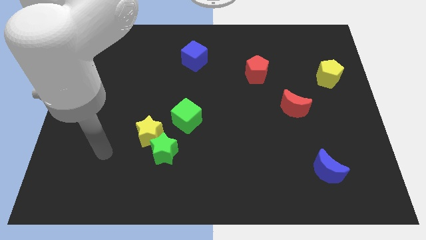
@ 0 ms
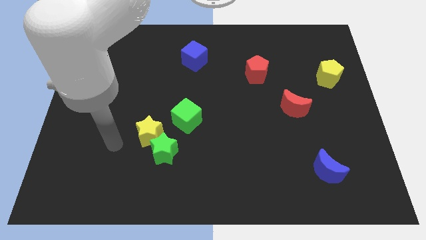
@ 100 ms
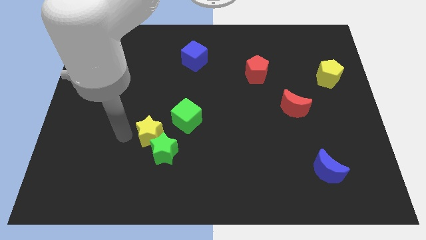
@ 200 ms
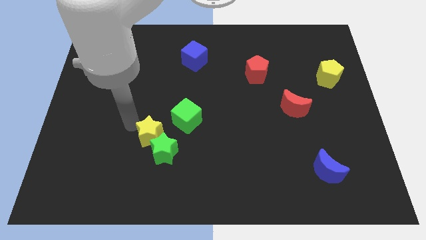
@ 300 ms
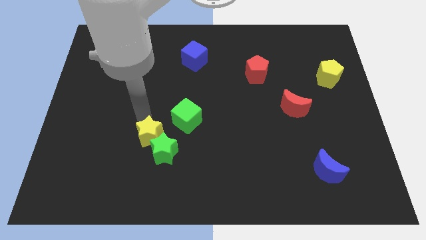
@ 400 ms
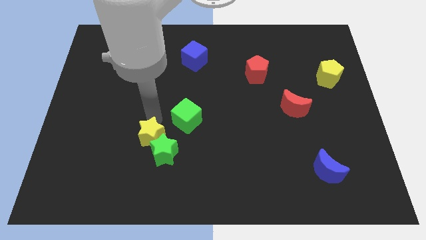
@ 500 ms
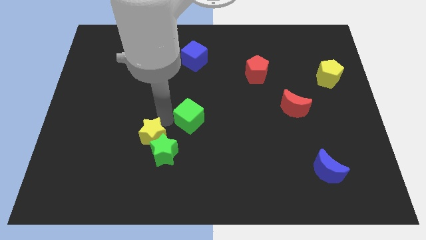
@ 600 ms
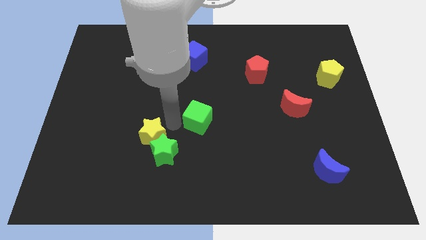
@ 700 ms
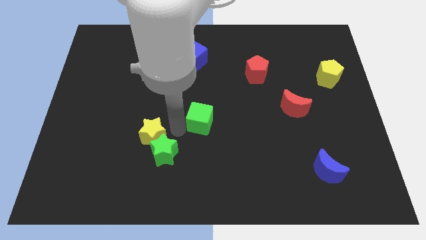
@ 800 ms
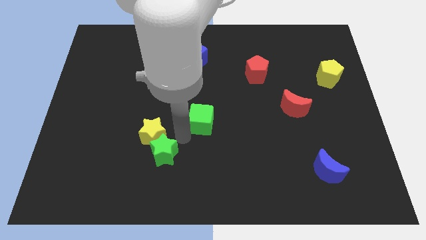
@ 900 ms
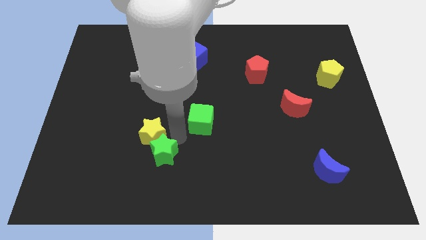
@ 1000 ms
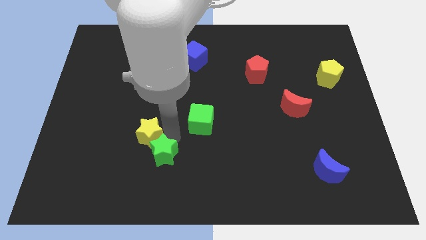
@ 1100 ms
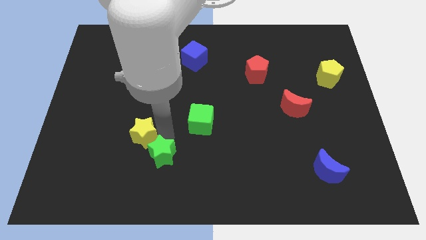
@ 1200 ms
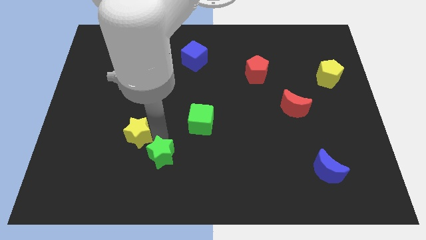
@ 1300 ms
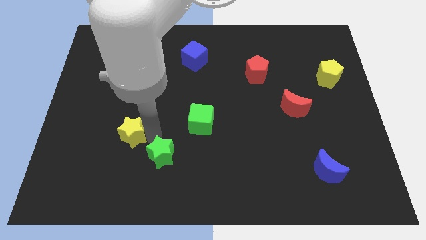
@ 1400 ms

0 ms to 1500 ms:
separate the yellow star from the green star and green cube

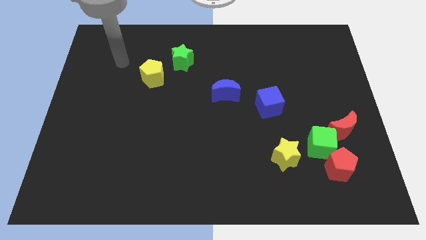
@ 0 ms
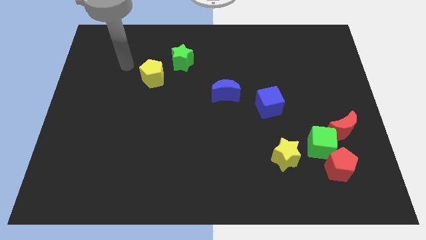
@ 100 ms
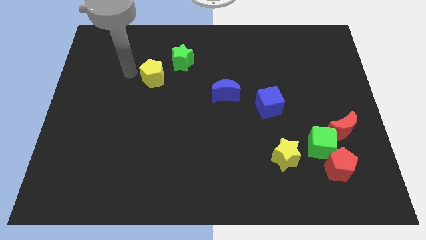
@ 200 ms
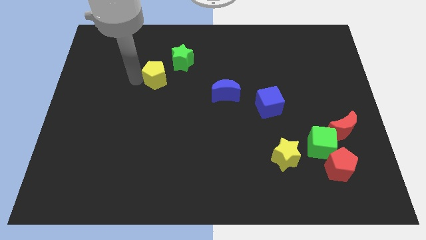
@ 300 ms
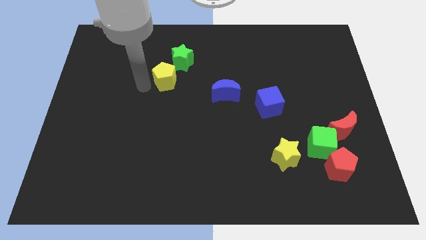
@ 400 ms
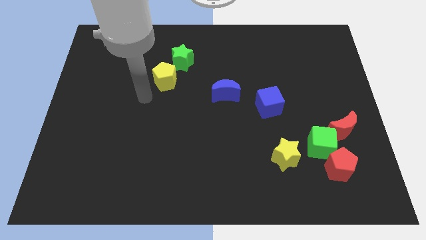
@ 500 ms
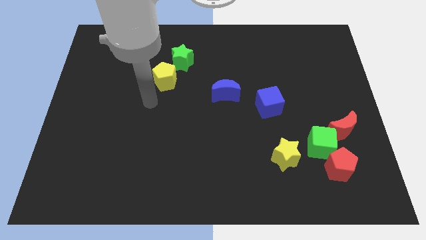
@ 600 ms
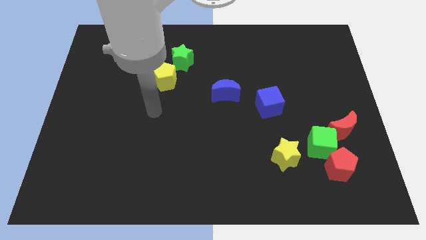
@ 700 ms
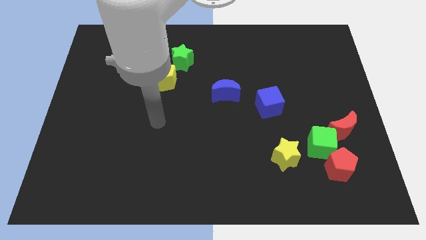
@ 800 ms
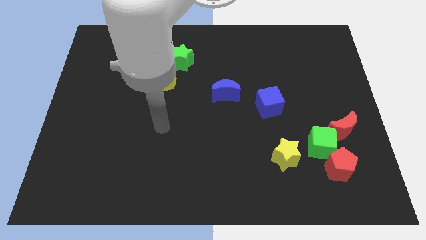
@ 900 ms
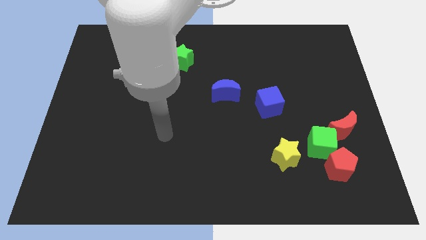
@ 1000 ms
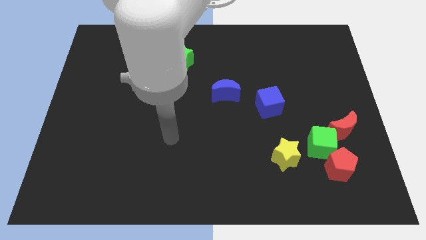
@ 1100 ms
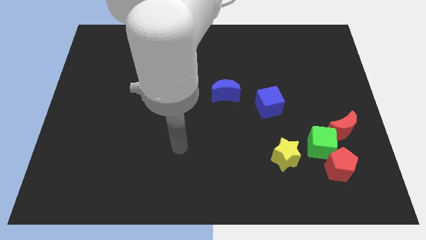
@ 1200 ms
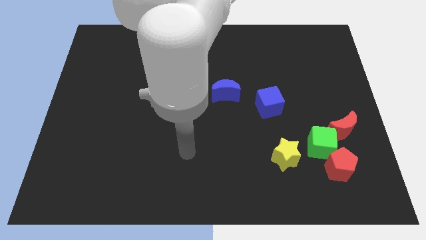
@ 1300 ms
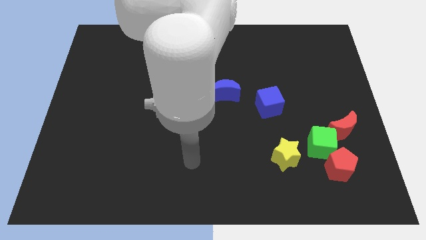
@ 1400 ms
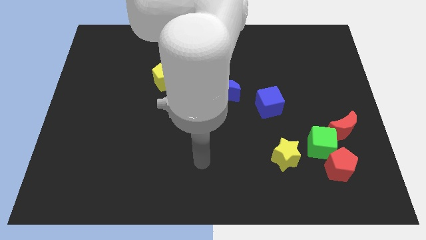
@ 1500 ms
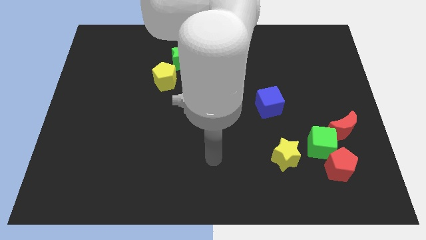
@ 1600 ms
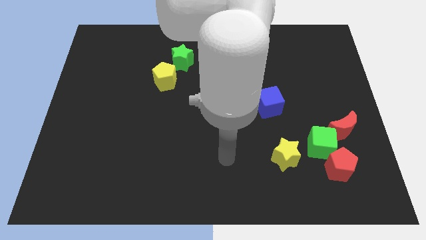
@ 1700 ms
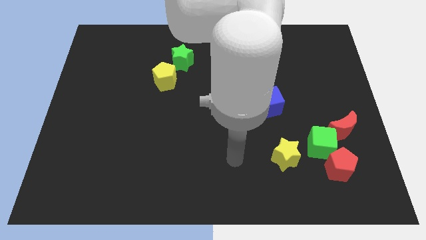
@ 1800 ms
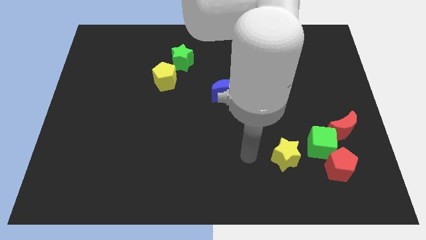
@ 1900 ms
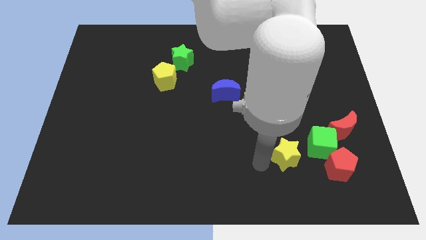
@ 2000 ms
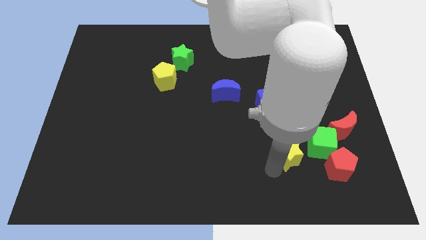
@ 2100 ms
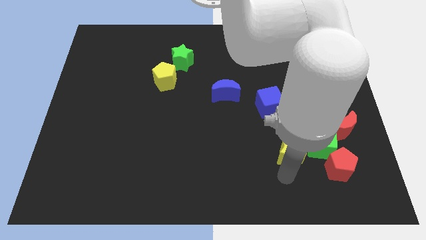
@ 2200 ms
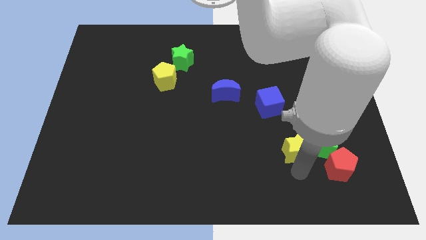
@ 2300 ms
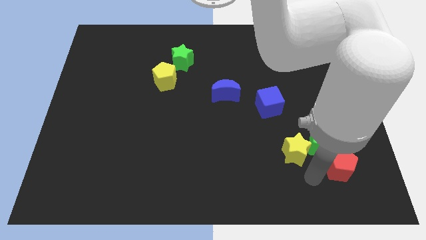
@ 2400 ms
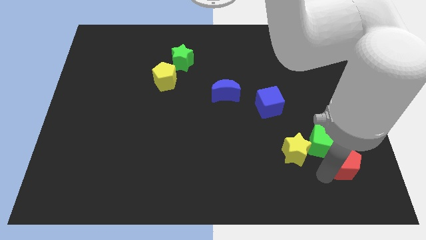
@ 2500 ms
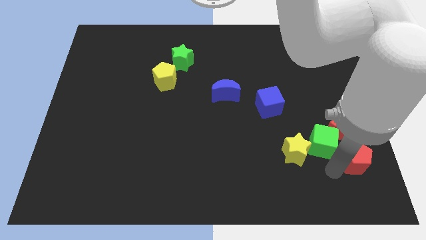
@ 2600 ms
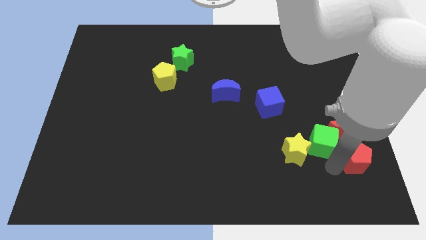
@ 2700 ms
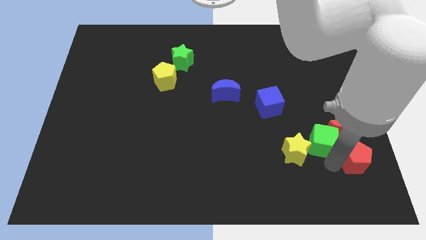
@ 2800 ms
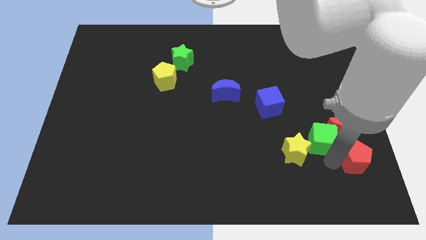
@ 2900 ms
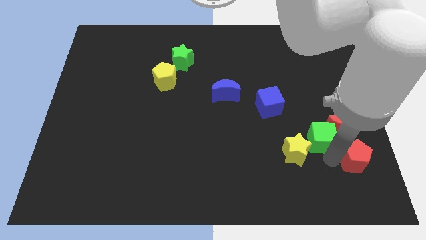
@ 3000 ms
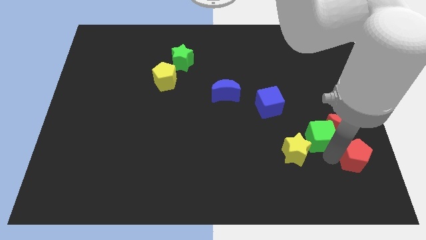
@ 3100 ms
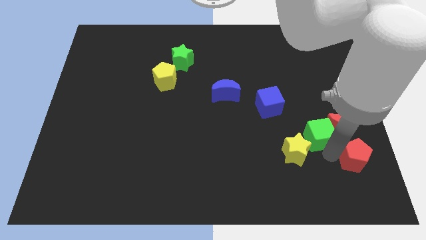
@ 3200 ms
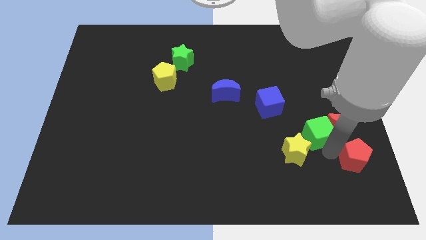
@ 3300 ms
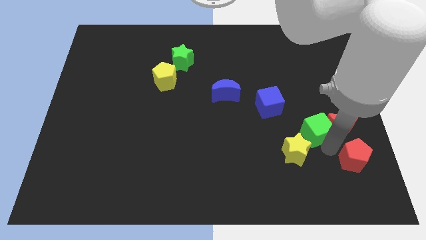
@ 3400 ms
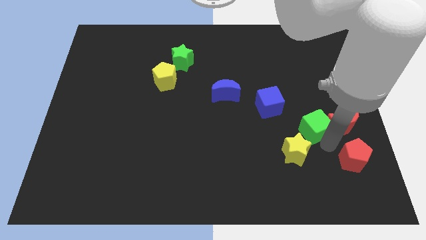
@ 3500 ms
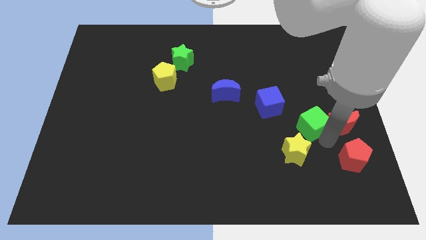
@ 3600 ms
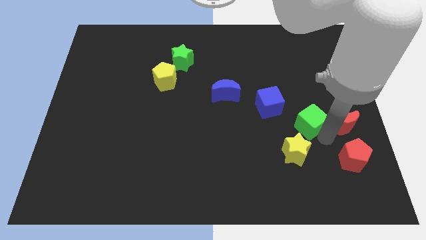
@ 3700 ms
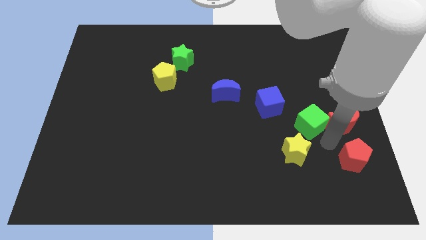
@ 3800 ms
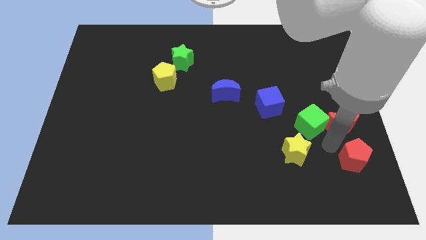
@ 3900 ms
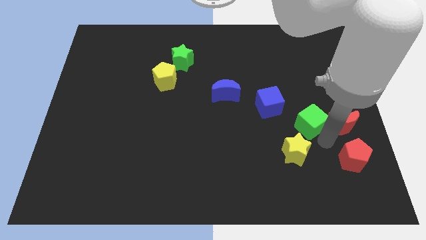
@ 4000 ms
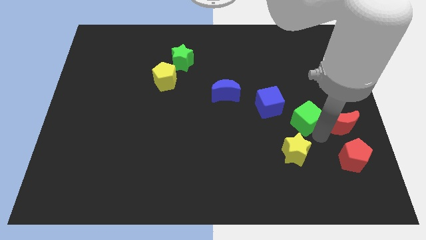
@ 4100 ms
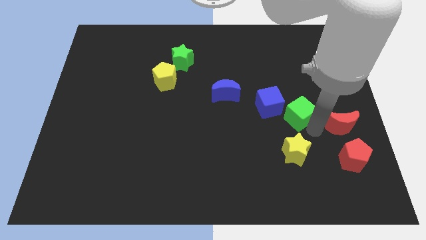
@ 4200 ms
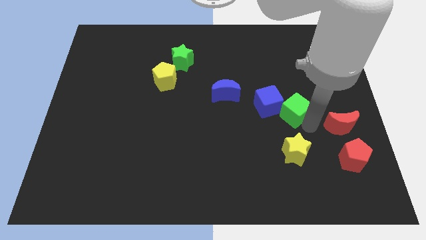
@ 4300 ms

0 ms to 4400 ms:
separate the green cube from the group of blocks

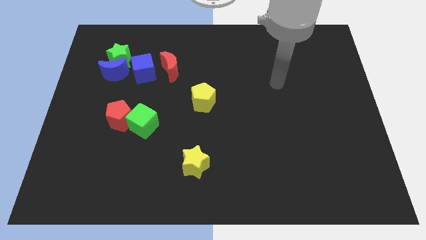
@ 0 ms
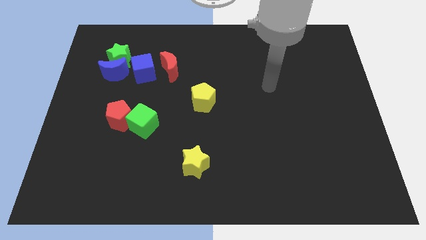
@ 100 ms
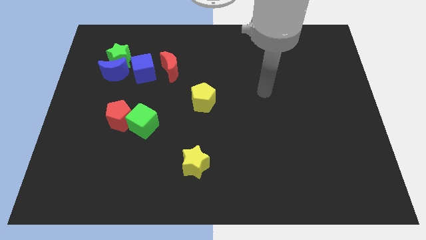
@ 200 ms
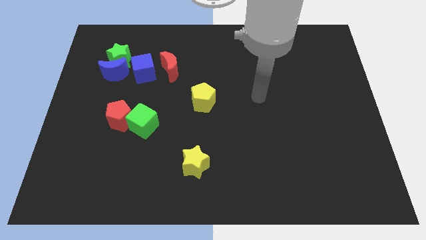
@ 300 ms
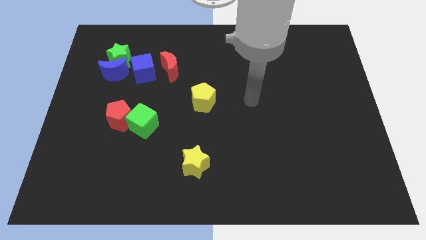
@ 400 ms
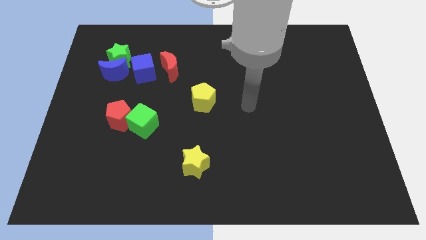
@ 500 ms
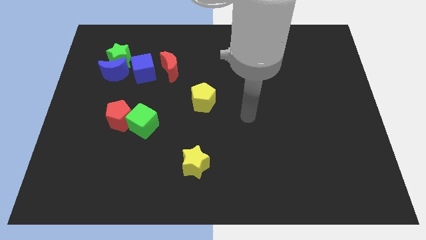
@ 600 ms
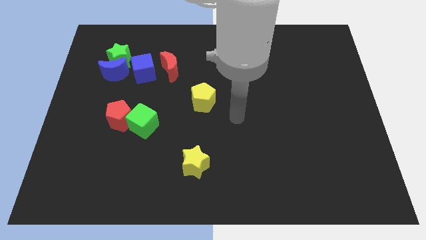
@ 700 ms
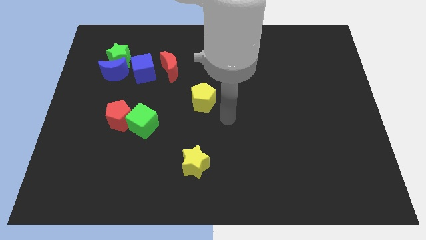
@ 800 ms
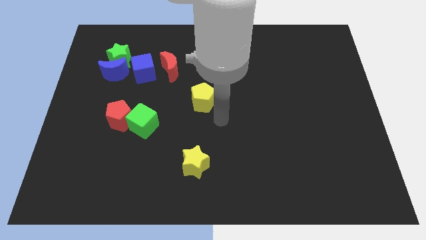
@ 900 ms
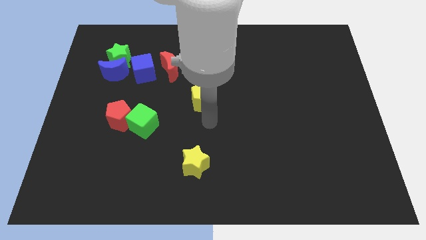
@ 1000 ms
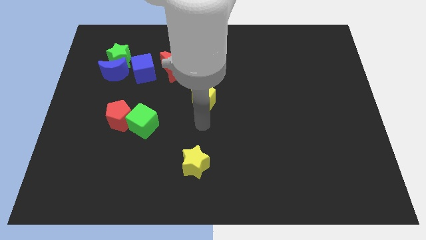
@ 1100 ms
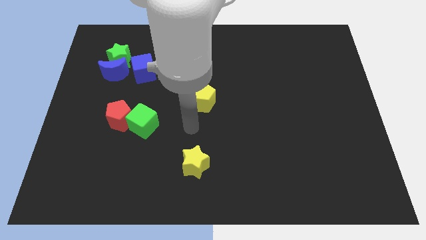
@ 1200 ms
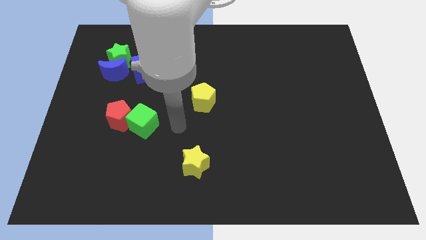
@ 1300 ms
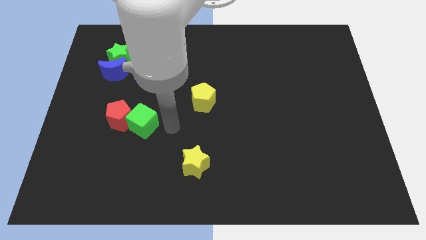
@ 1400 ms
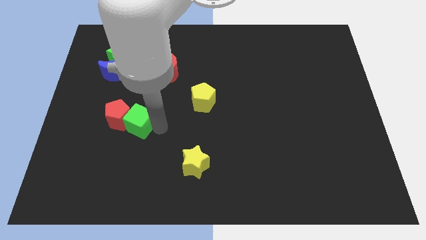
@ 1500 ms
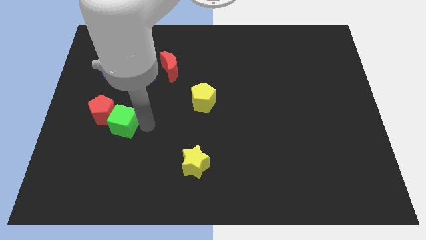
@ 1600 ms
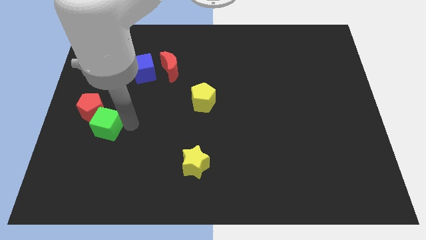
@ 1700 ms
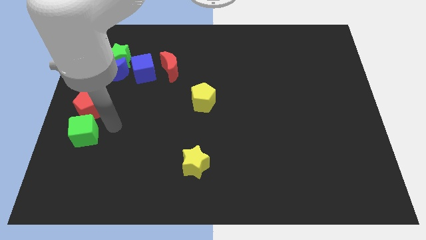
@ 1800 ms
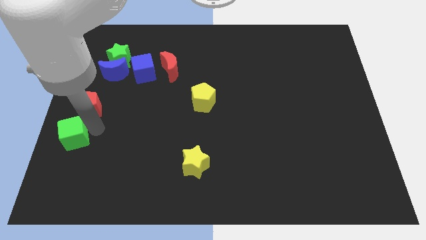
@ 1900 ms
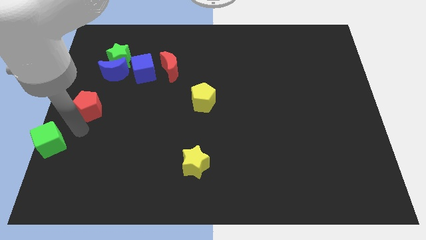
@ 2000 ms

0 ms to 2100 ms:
pull the red pentagon apart from the green cube

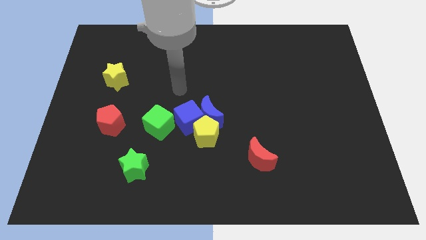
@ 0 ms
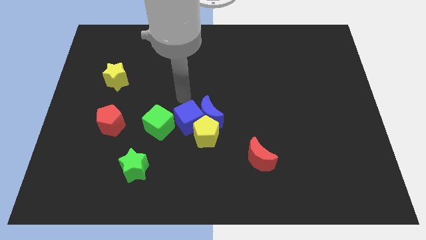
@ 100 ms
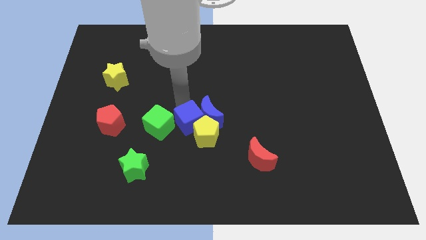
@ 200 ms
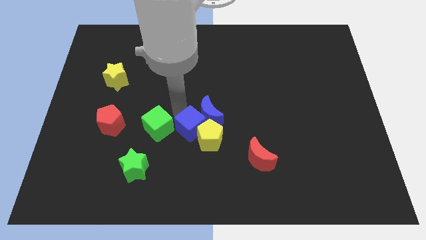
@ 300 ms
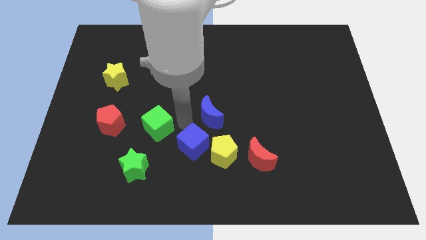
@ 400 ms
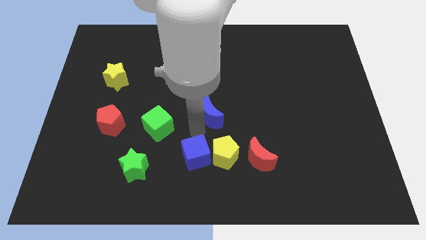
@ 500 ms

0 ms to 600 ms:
pull the blue moon apart from the blue cube and yellow pentagon

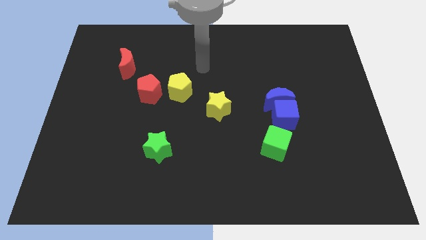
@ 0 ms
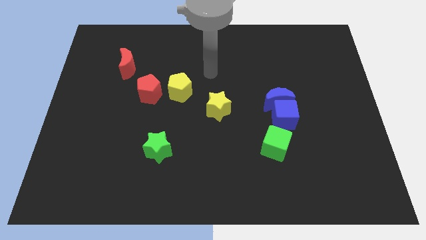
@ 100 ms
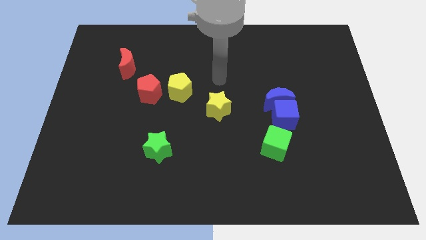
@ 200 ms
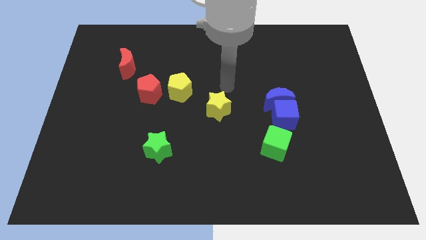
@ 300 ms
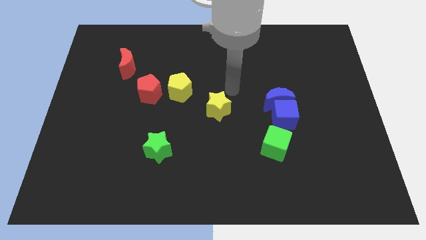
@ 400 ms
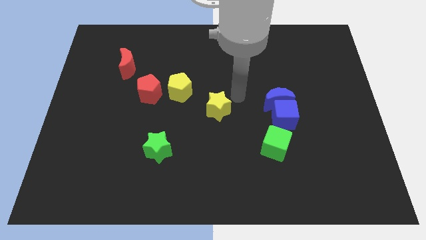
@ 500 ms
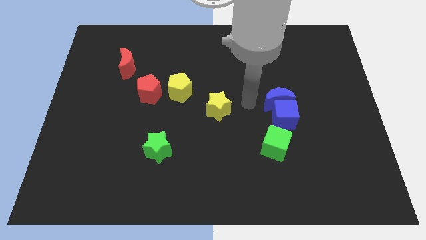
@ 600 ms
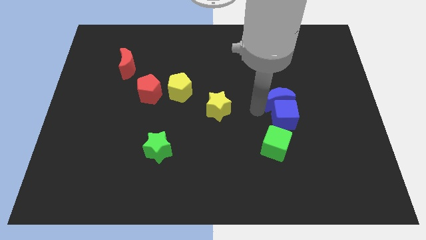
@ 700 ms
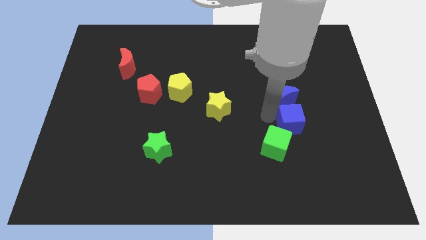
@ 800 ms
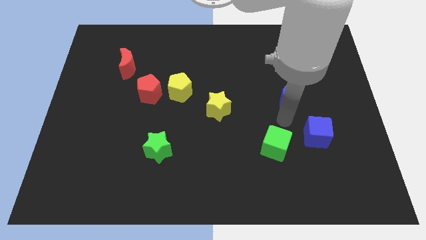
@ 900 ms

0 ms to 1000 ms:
separate the blue moon from the blue cube
